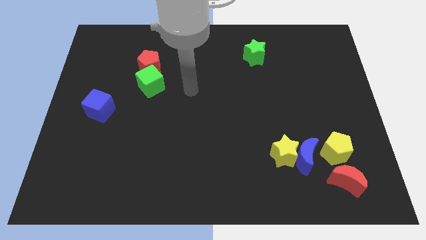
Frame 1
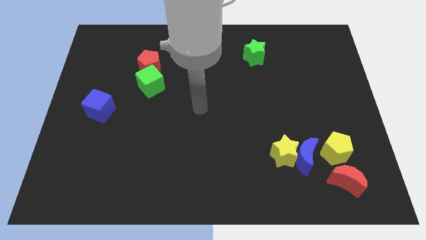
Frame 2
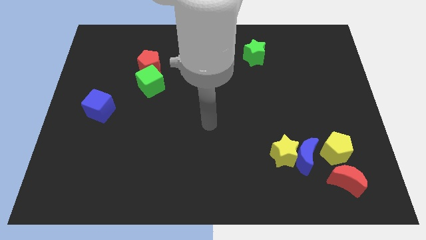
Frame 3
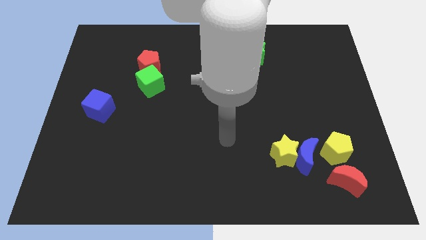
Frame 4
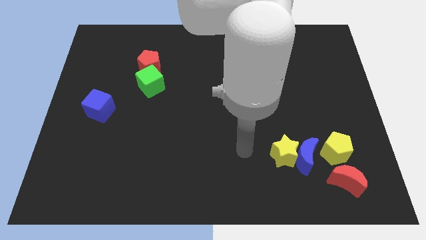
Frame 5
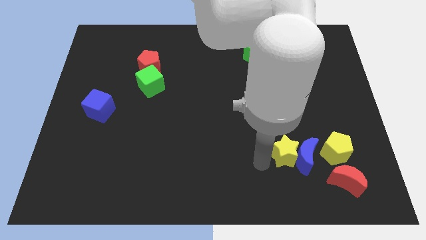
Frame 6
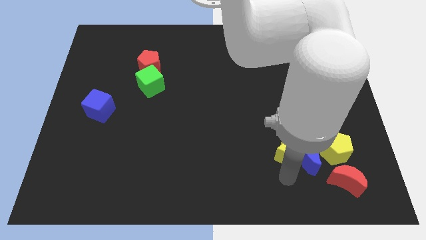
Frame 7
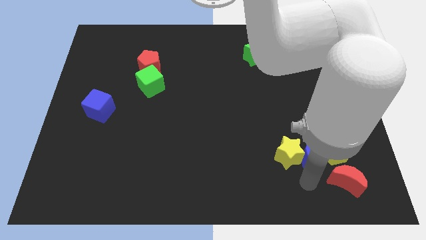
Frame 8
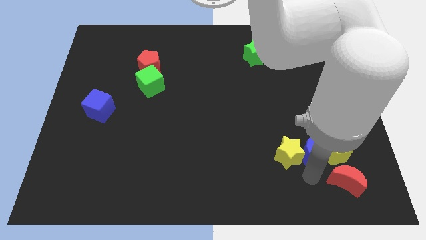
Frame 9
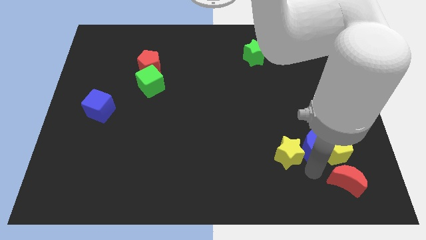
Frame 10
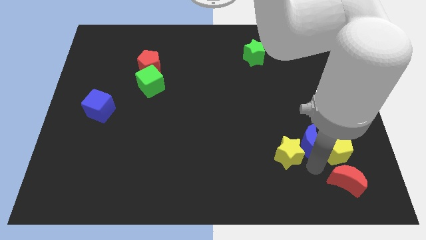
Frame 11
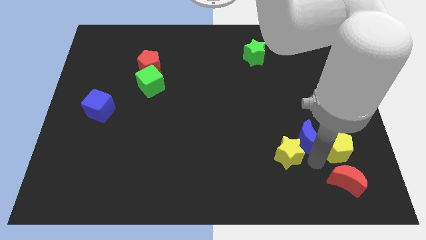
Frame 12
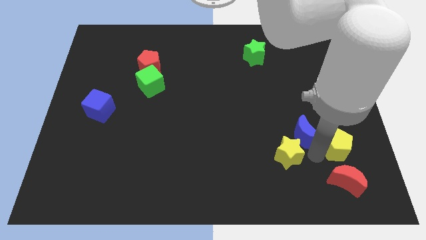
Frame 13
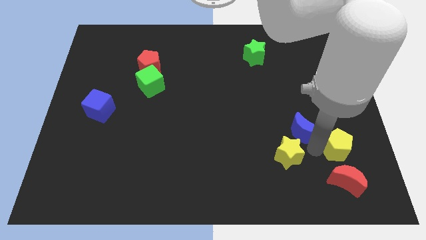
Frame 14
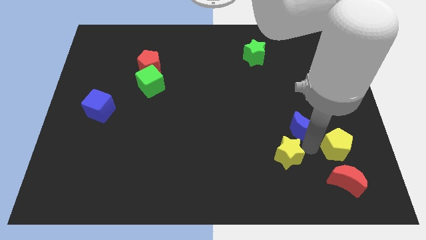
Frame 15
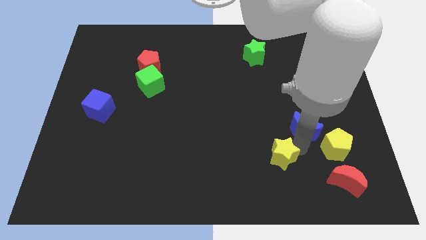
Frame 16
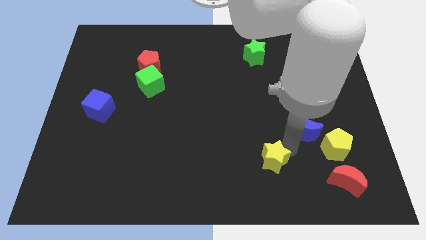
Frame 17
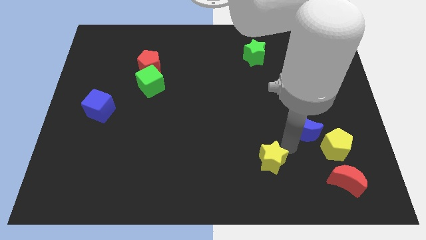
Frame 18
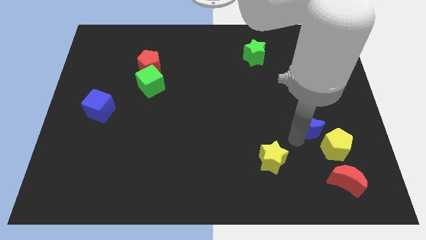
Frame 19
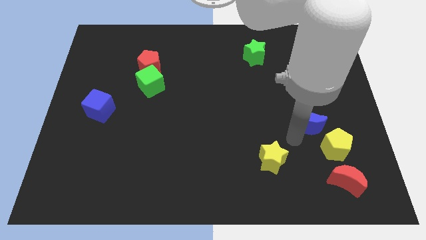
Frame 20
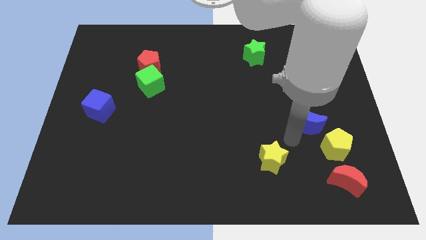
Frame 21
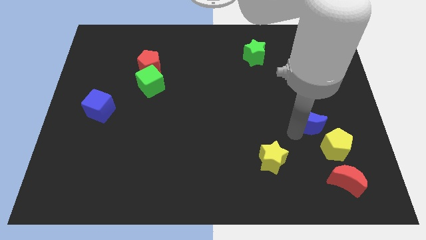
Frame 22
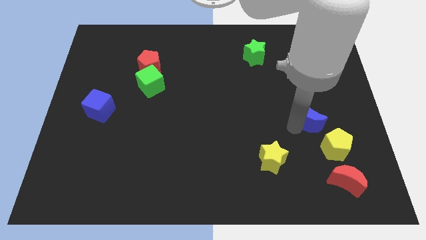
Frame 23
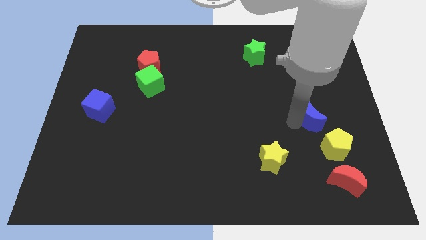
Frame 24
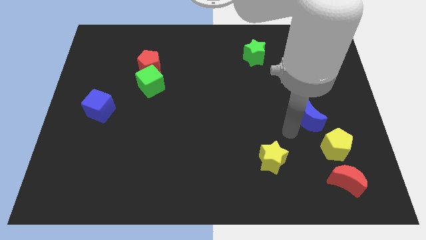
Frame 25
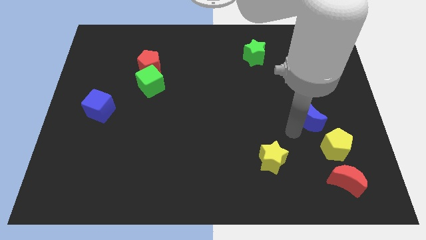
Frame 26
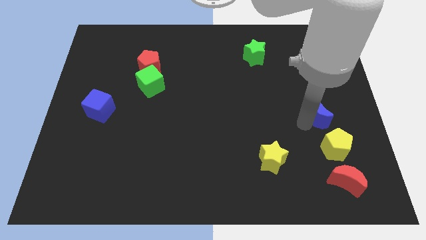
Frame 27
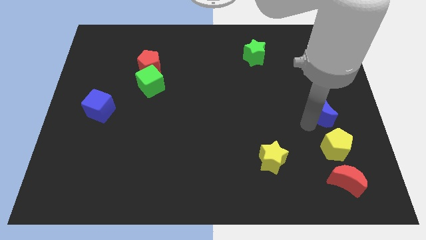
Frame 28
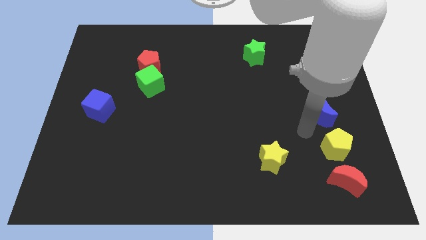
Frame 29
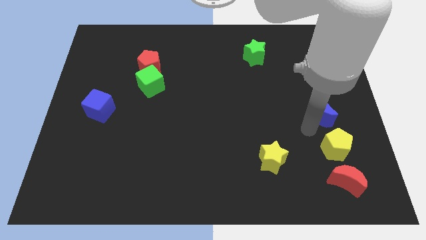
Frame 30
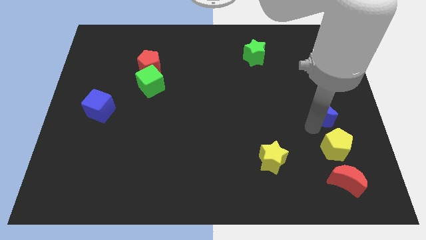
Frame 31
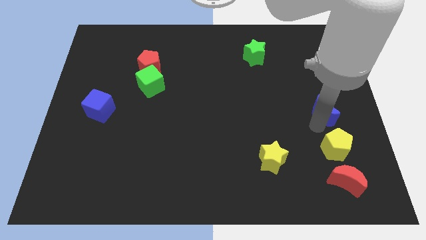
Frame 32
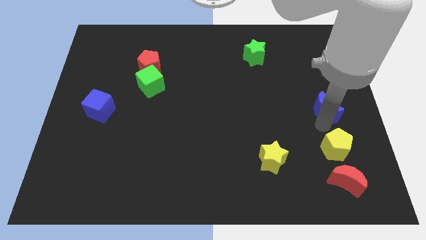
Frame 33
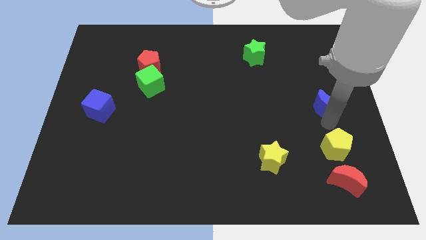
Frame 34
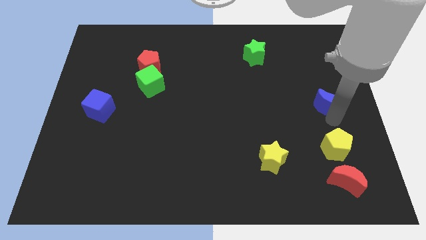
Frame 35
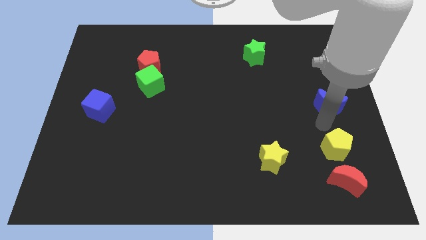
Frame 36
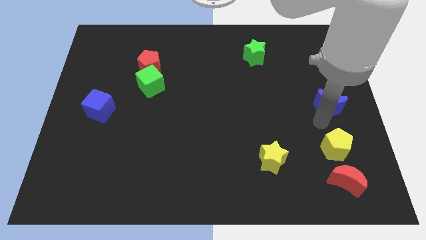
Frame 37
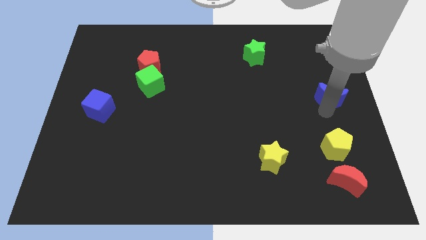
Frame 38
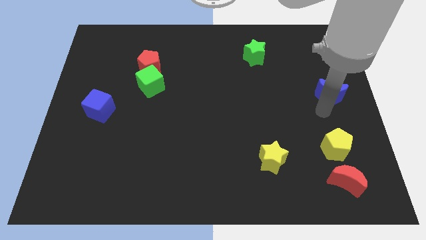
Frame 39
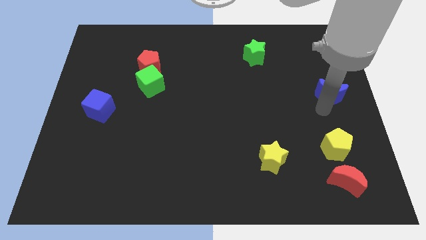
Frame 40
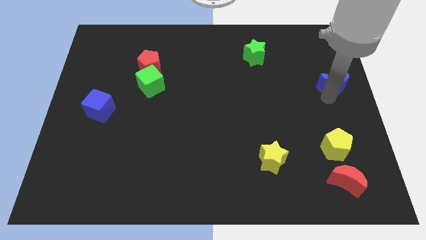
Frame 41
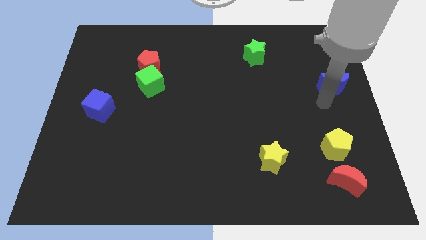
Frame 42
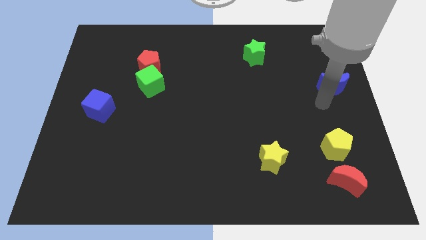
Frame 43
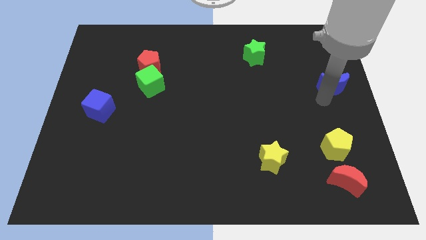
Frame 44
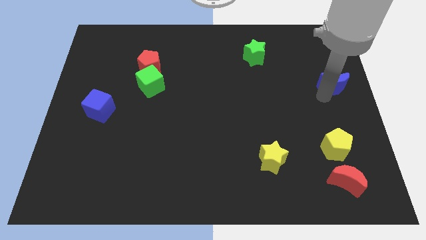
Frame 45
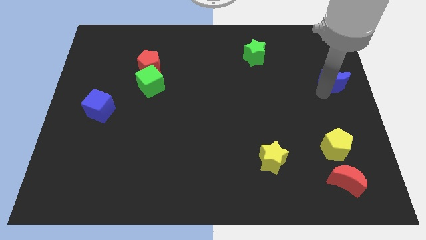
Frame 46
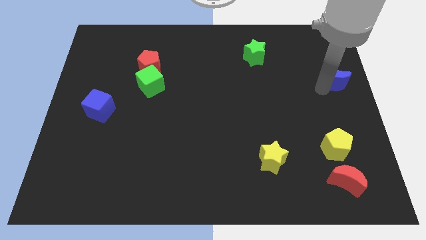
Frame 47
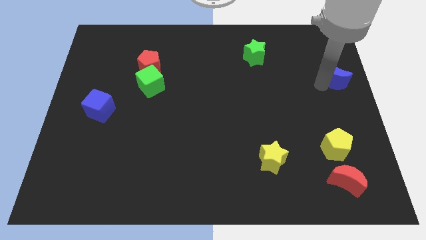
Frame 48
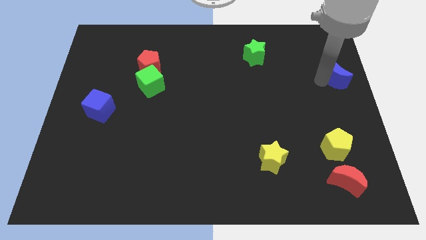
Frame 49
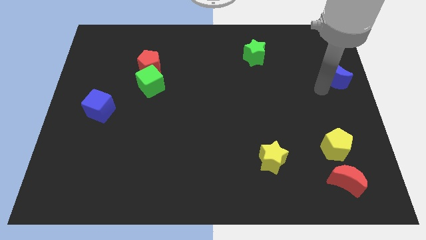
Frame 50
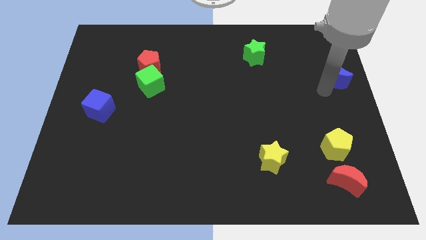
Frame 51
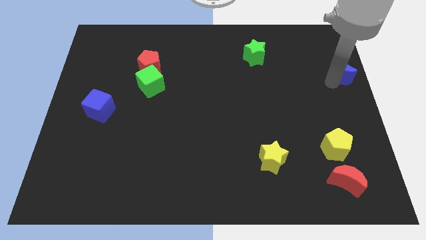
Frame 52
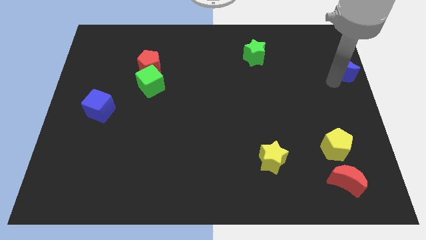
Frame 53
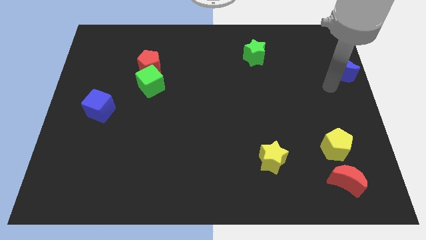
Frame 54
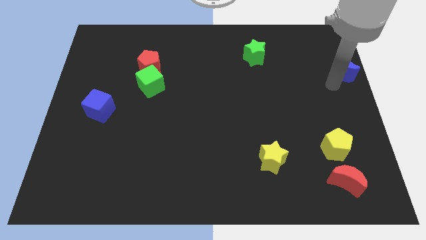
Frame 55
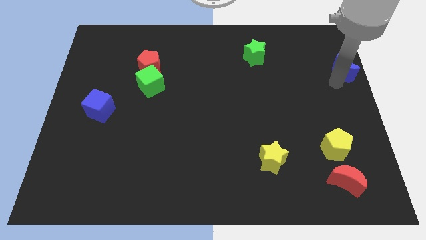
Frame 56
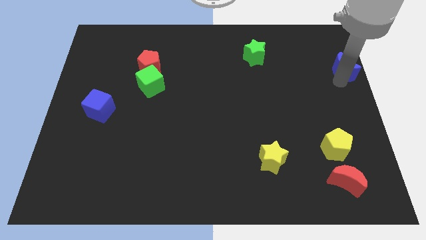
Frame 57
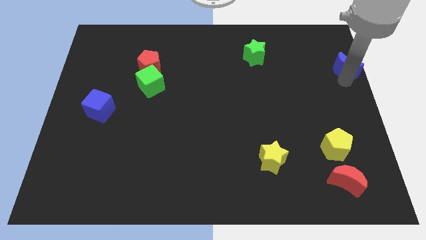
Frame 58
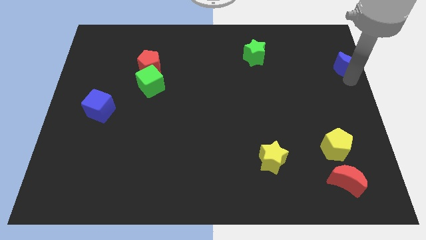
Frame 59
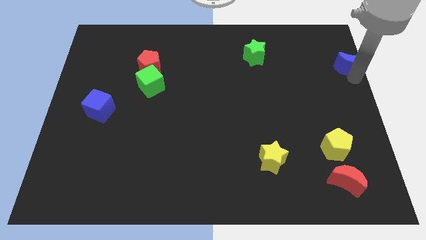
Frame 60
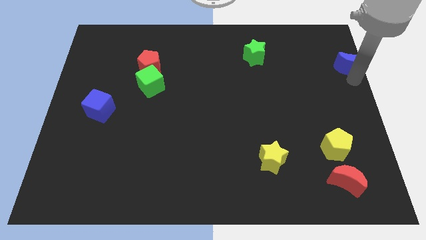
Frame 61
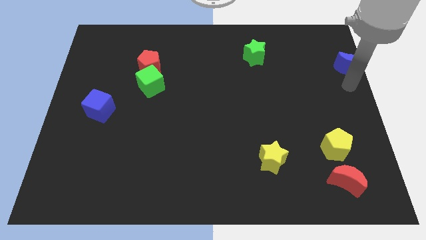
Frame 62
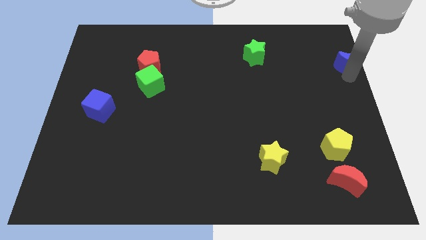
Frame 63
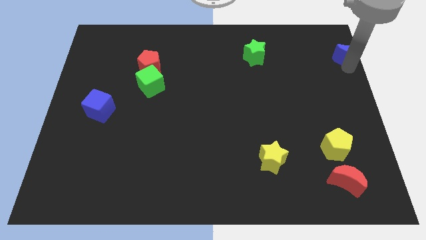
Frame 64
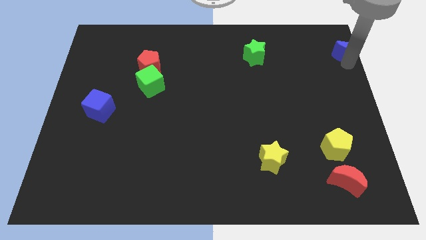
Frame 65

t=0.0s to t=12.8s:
push the blue moon to the top right of the board

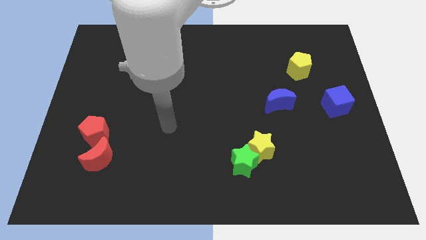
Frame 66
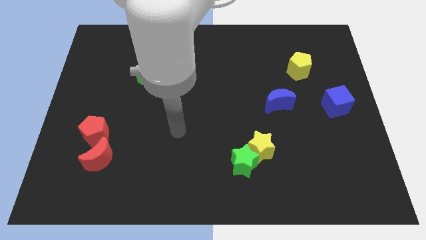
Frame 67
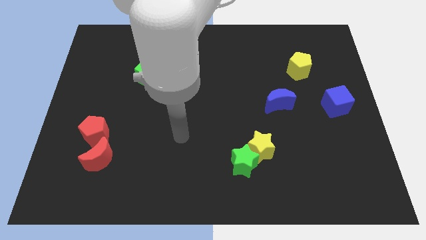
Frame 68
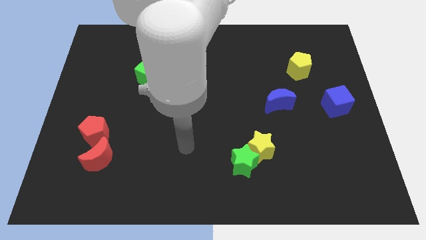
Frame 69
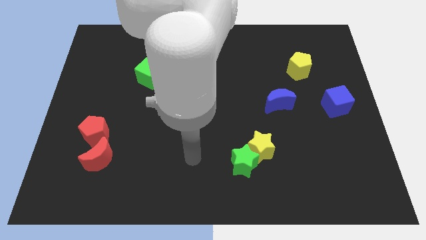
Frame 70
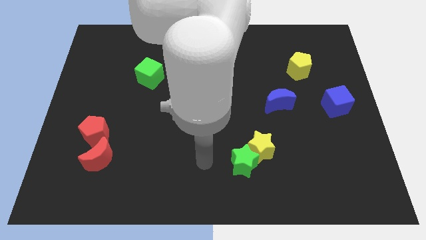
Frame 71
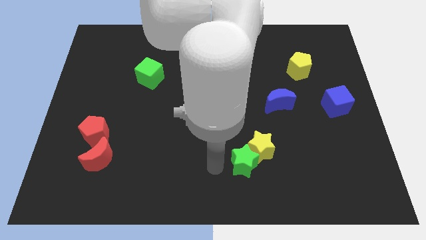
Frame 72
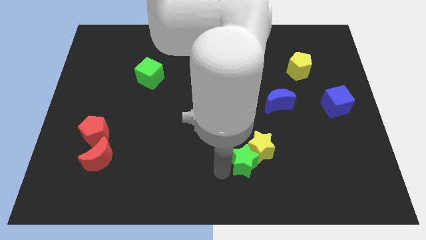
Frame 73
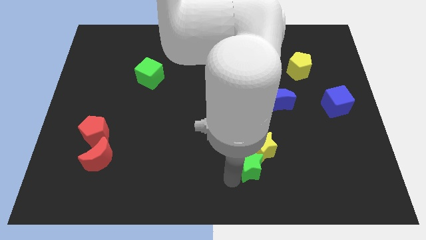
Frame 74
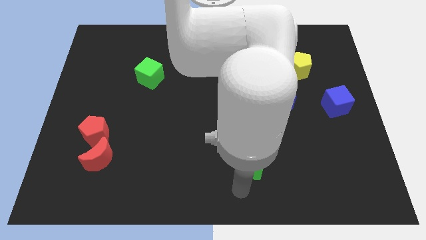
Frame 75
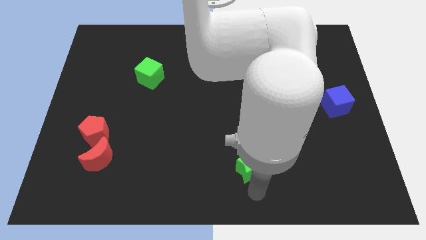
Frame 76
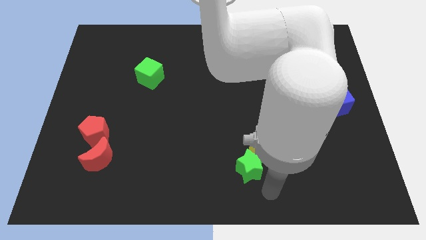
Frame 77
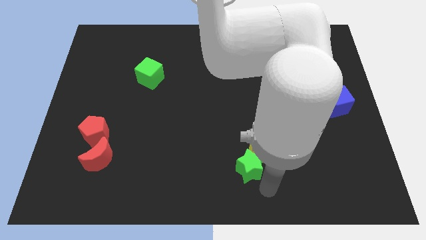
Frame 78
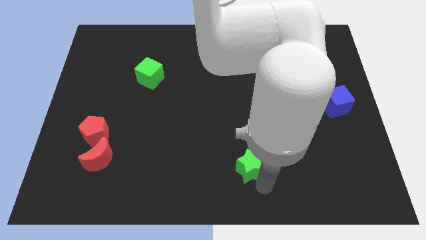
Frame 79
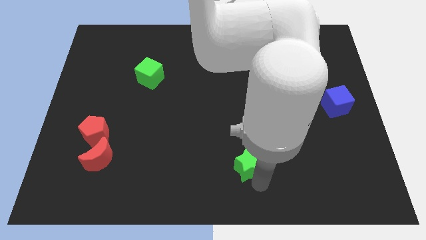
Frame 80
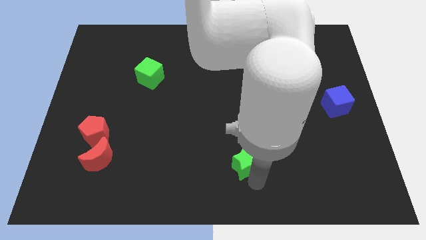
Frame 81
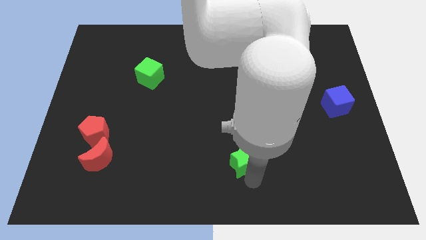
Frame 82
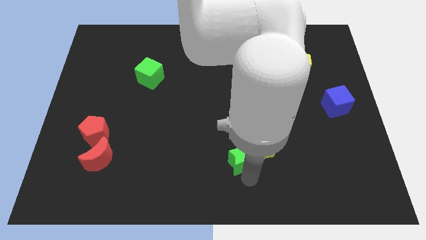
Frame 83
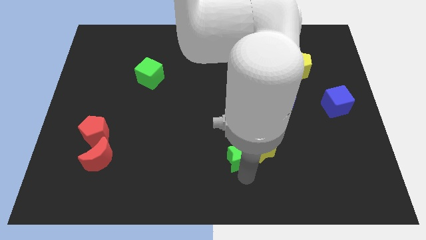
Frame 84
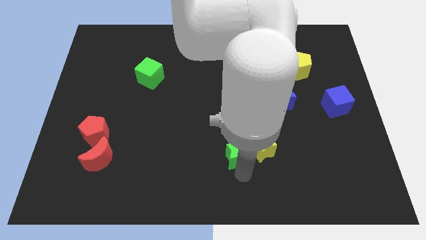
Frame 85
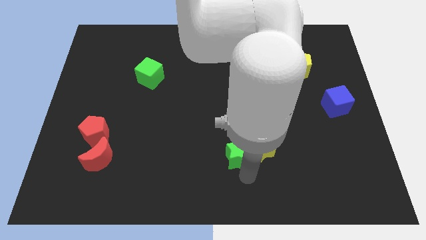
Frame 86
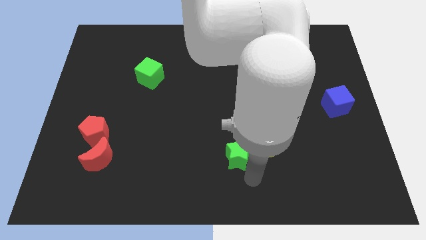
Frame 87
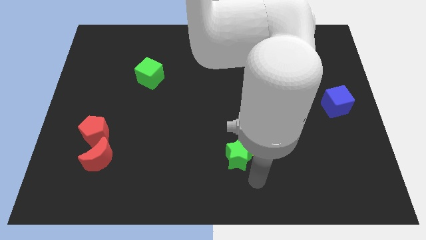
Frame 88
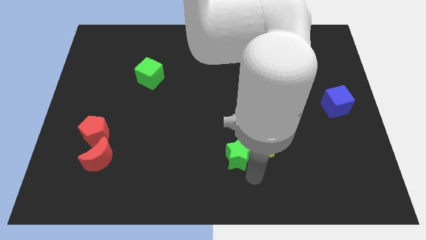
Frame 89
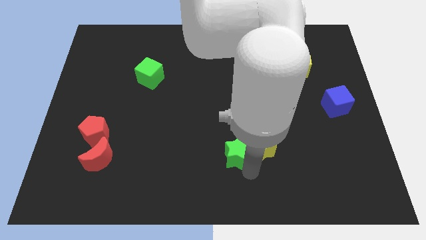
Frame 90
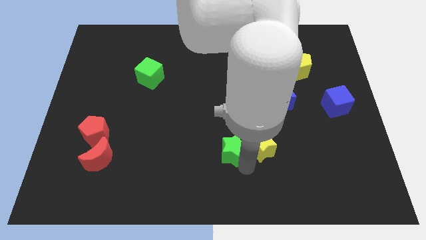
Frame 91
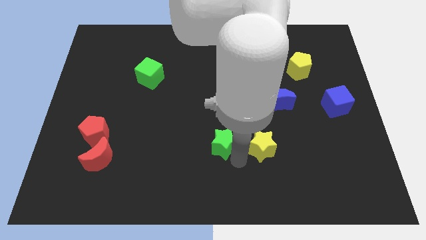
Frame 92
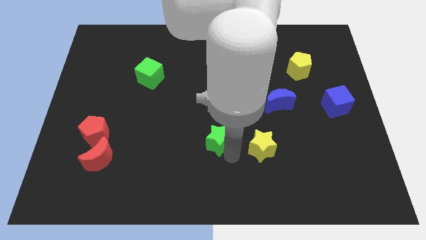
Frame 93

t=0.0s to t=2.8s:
push the green star to the center
